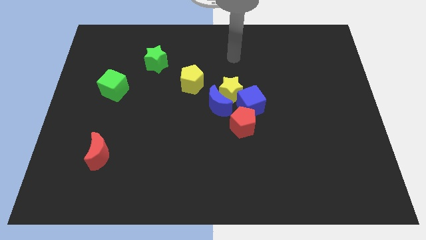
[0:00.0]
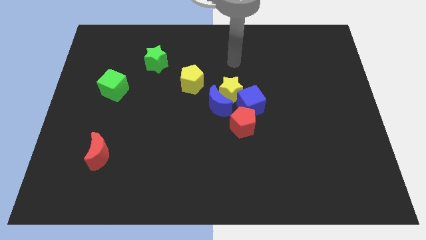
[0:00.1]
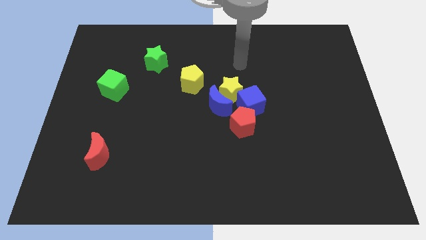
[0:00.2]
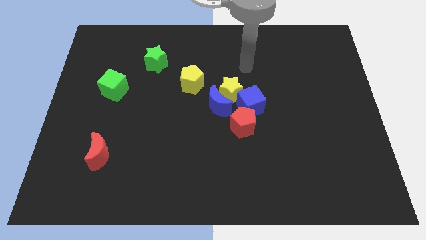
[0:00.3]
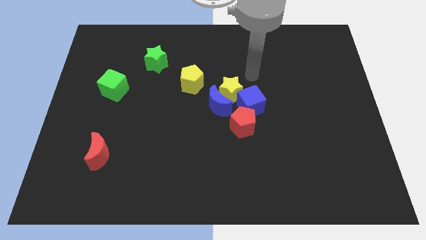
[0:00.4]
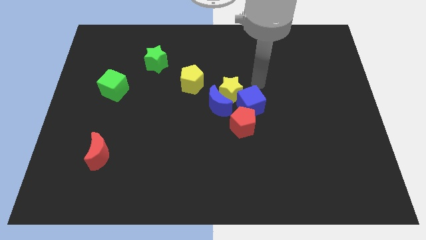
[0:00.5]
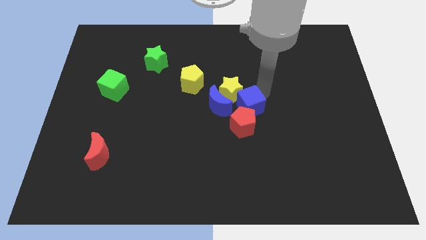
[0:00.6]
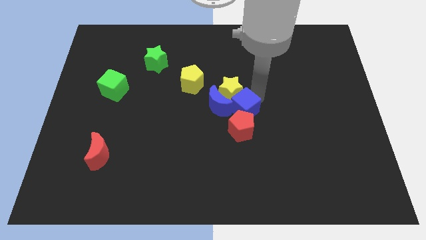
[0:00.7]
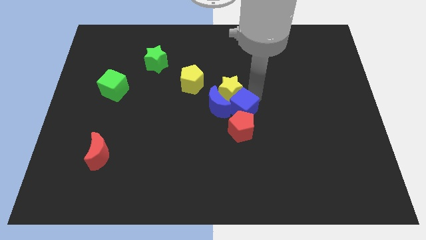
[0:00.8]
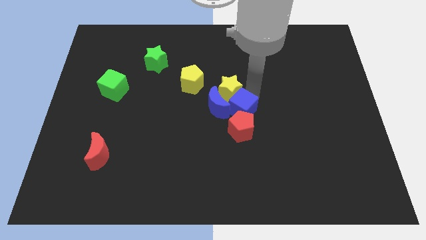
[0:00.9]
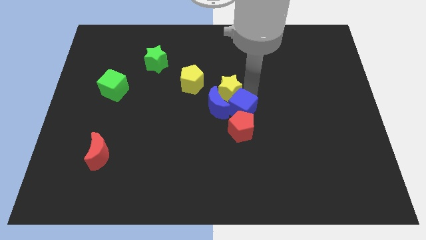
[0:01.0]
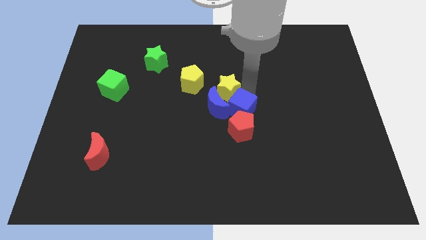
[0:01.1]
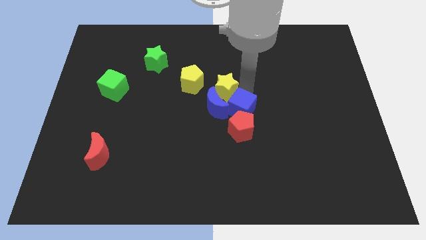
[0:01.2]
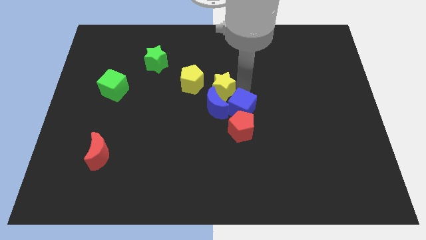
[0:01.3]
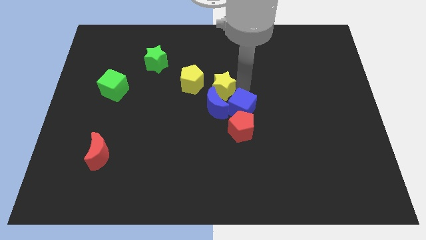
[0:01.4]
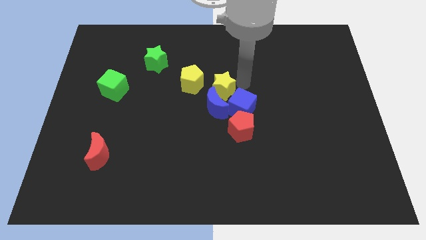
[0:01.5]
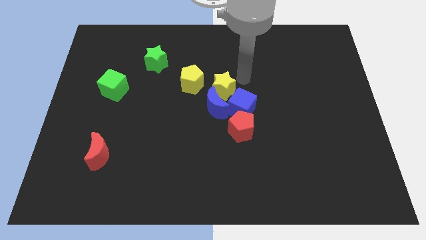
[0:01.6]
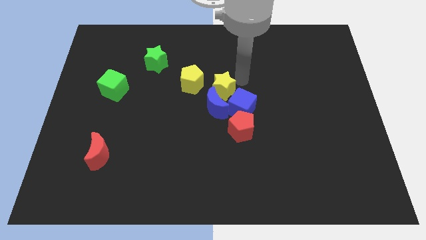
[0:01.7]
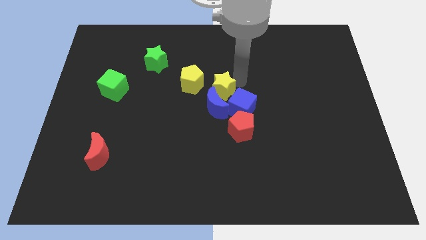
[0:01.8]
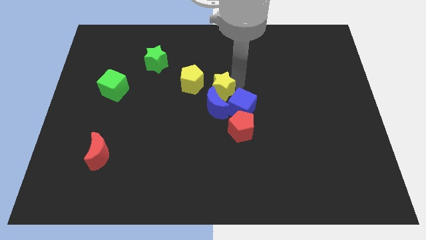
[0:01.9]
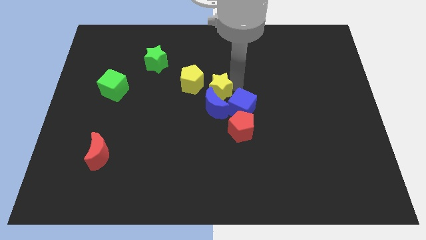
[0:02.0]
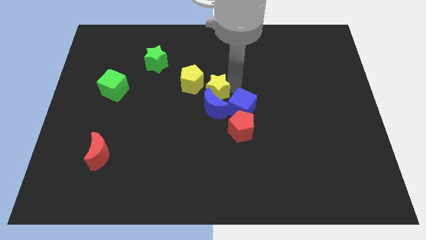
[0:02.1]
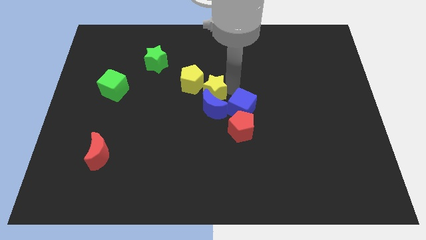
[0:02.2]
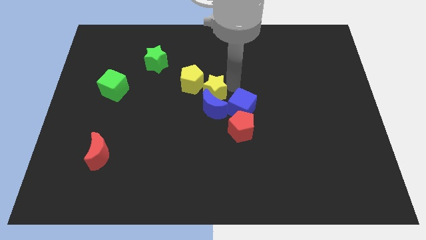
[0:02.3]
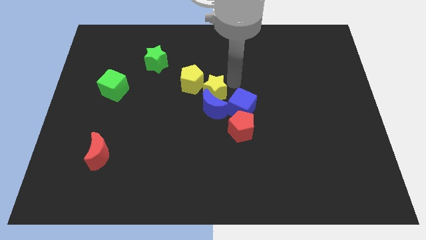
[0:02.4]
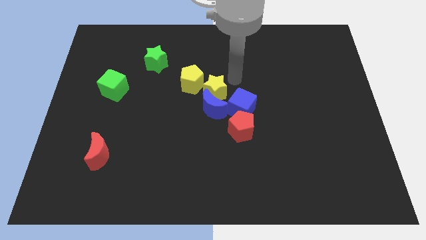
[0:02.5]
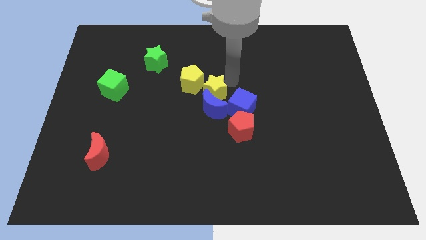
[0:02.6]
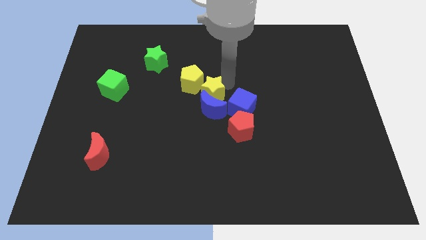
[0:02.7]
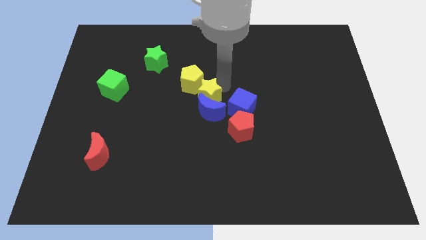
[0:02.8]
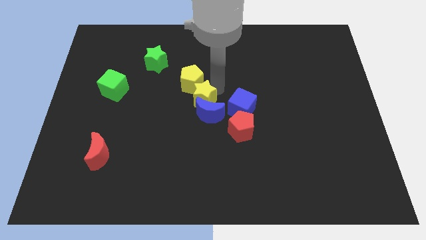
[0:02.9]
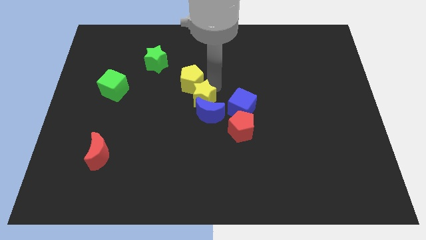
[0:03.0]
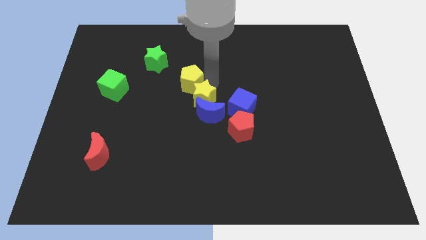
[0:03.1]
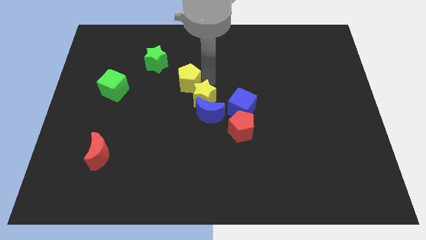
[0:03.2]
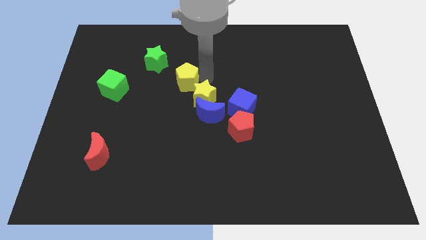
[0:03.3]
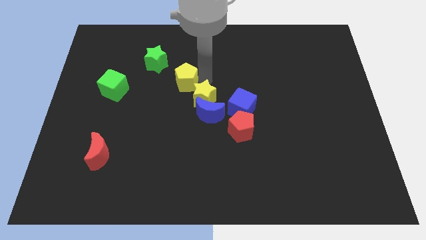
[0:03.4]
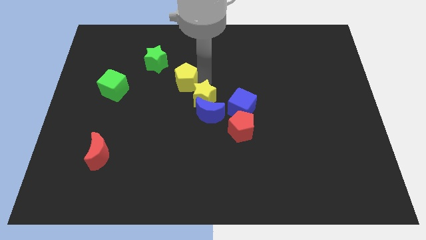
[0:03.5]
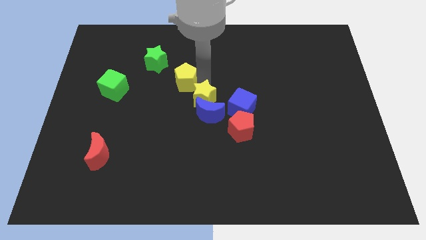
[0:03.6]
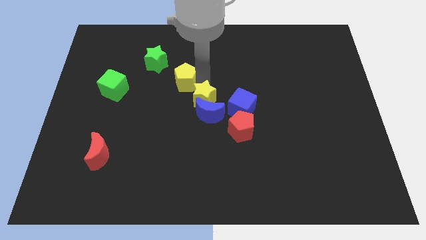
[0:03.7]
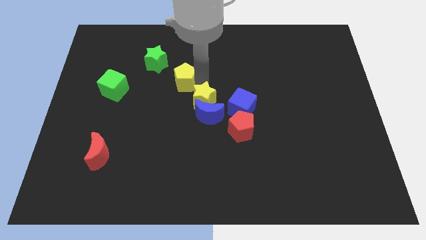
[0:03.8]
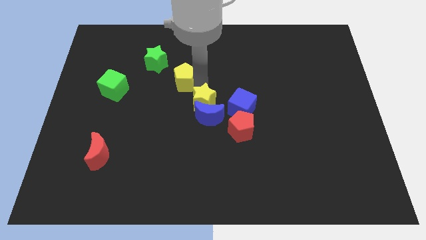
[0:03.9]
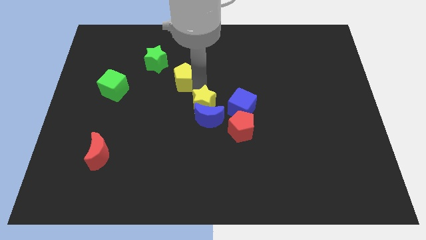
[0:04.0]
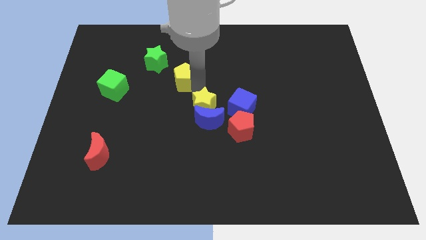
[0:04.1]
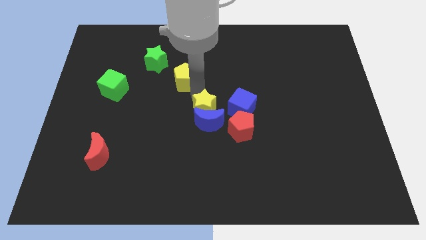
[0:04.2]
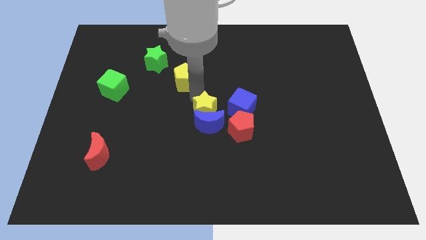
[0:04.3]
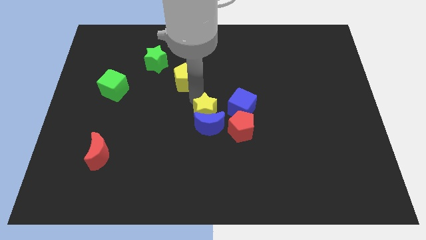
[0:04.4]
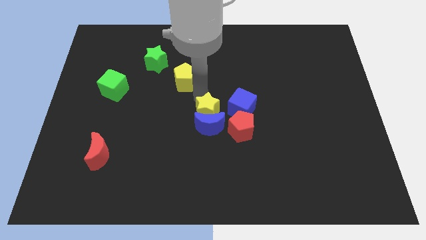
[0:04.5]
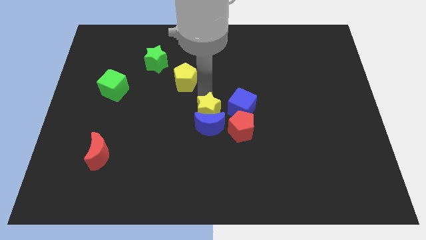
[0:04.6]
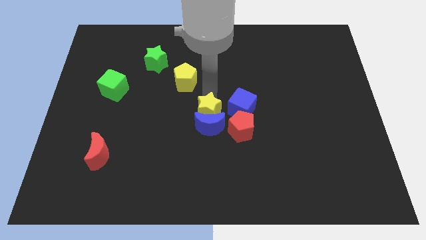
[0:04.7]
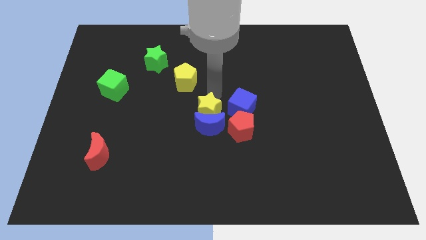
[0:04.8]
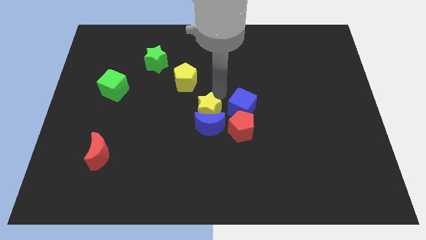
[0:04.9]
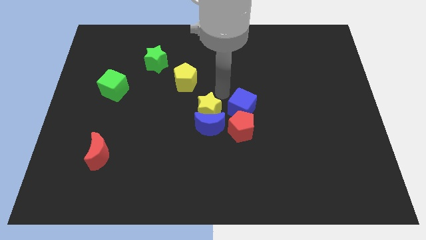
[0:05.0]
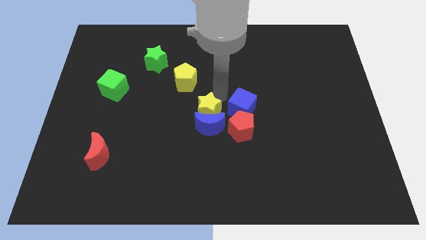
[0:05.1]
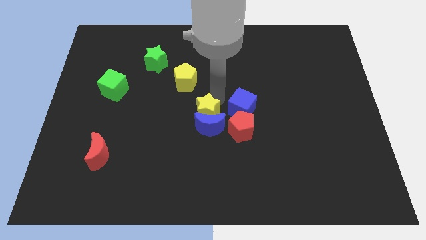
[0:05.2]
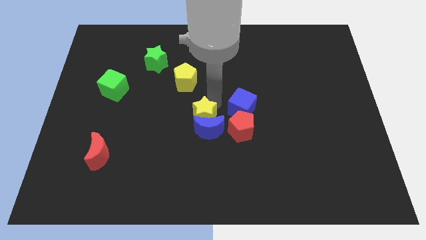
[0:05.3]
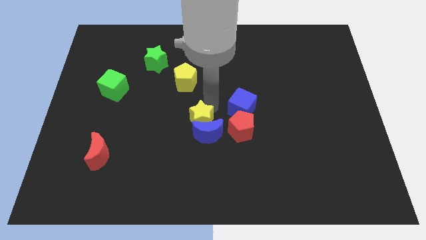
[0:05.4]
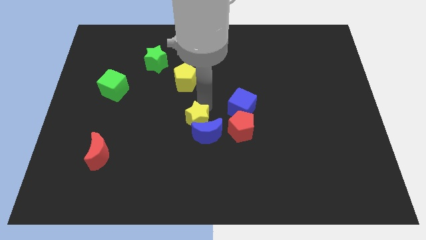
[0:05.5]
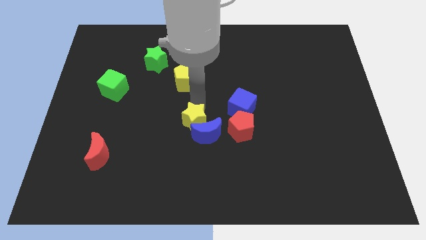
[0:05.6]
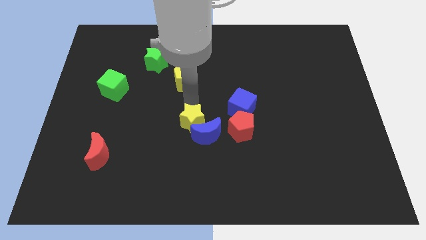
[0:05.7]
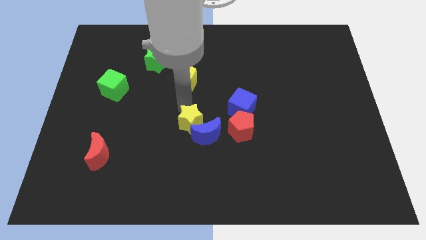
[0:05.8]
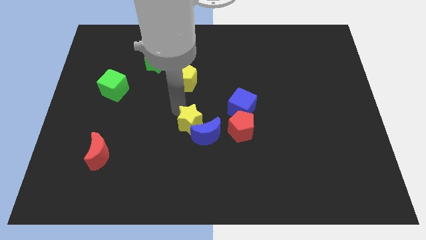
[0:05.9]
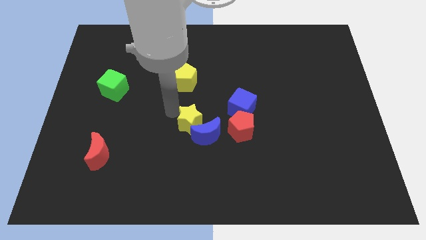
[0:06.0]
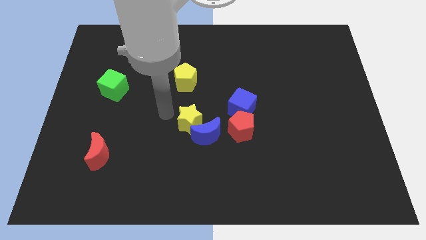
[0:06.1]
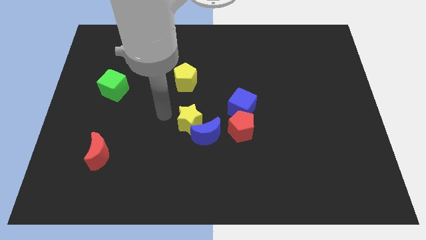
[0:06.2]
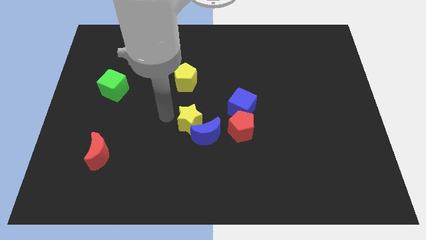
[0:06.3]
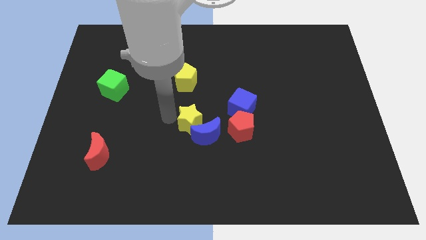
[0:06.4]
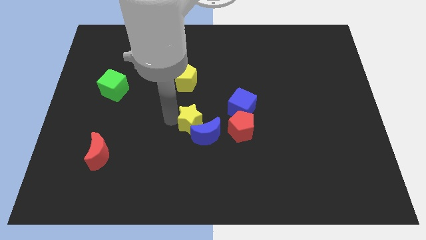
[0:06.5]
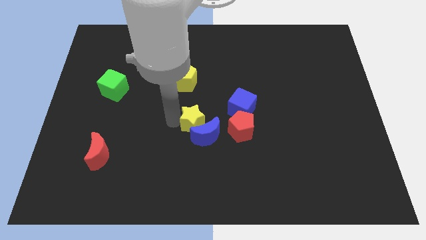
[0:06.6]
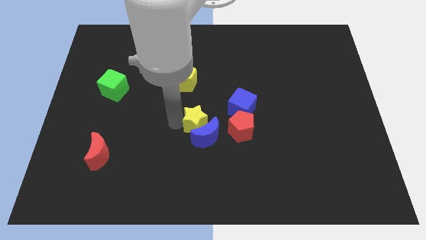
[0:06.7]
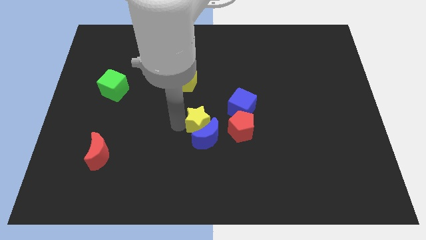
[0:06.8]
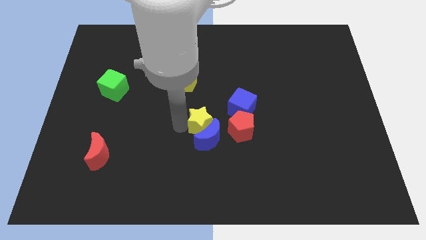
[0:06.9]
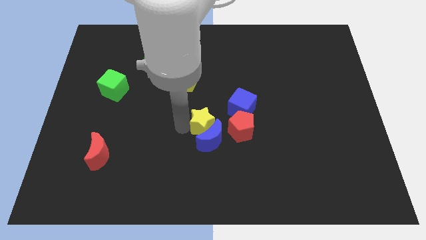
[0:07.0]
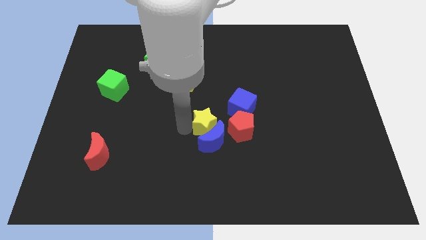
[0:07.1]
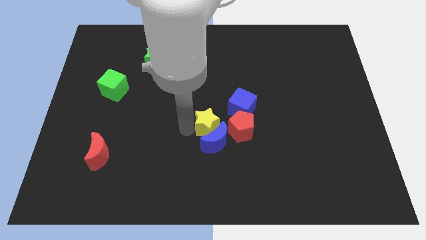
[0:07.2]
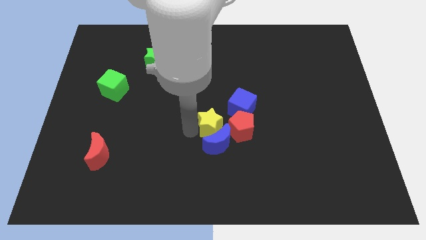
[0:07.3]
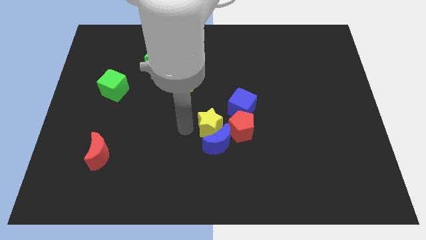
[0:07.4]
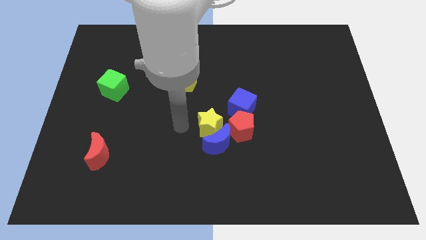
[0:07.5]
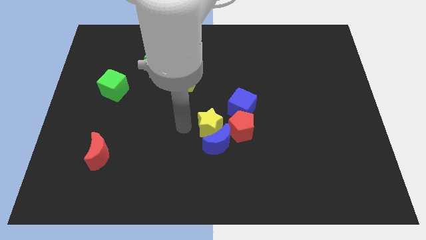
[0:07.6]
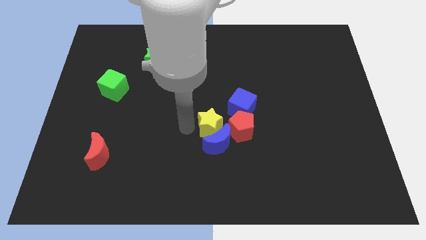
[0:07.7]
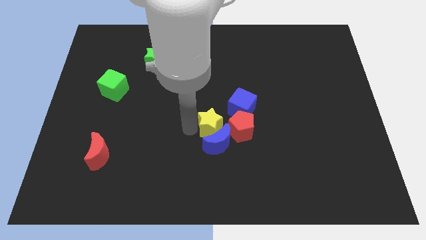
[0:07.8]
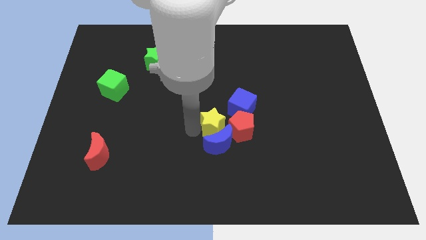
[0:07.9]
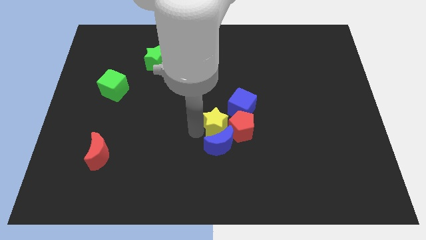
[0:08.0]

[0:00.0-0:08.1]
put the yellow star close to the red pentagon
